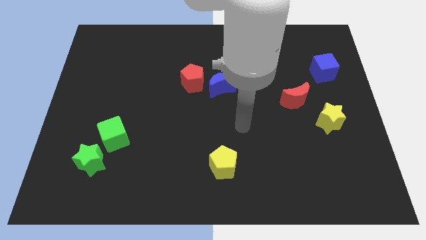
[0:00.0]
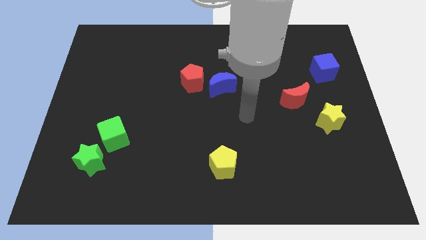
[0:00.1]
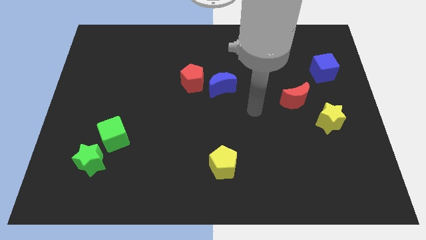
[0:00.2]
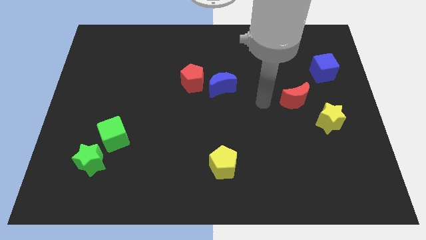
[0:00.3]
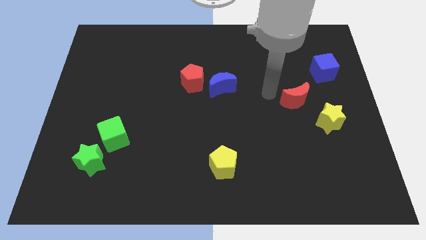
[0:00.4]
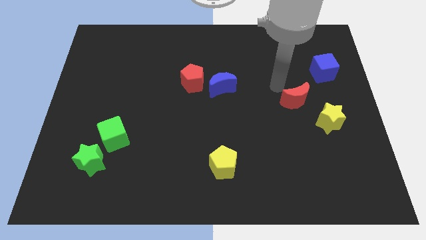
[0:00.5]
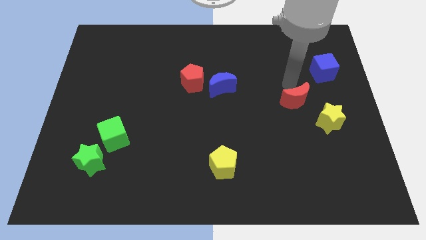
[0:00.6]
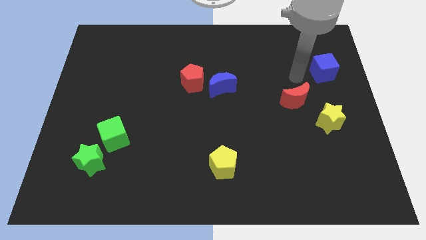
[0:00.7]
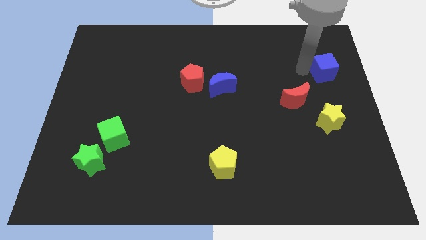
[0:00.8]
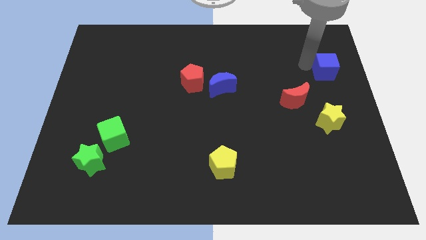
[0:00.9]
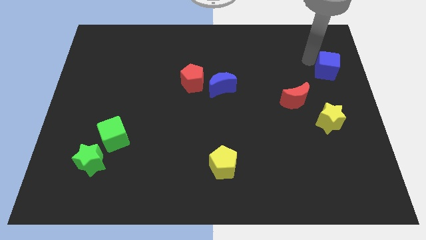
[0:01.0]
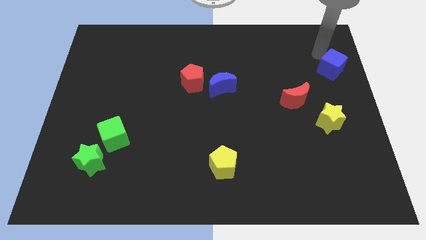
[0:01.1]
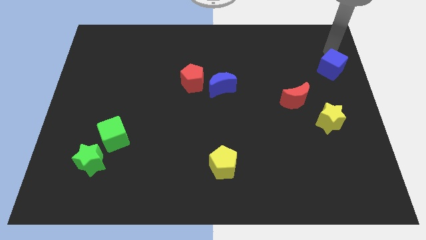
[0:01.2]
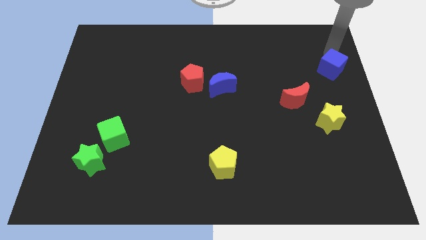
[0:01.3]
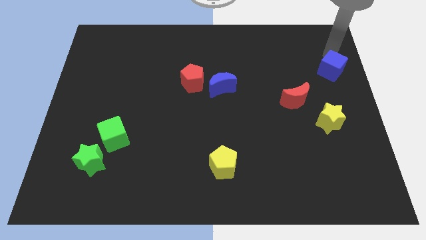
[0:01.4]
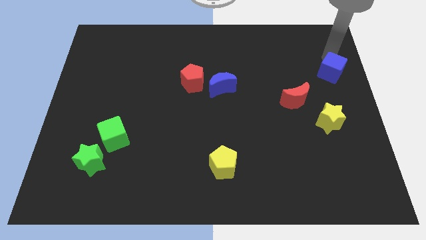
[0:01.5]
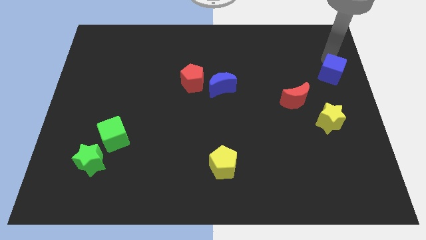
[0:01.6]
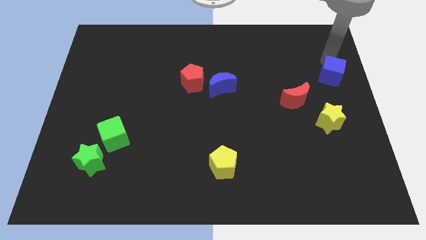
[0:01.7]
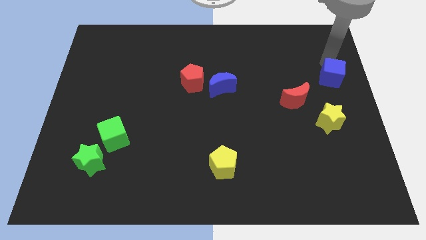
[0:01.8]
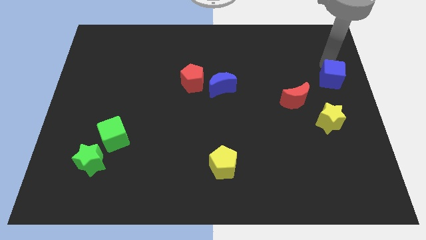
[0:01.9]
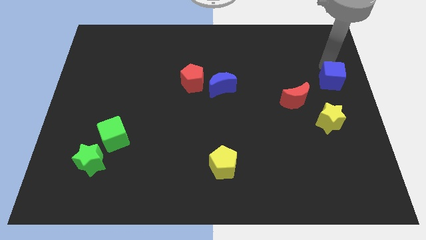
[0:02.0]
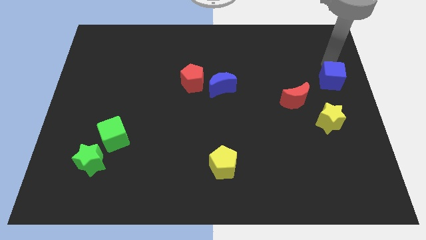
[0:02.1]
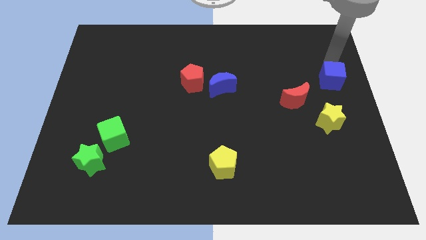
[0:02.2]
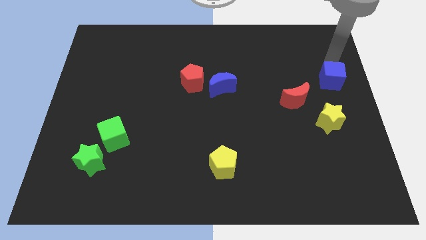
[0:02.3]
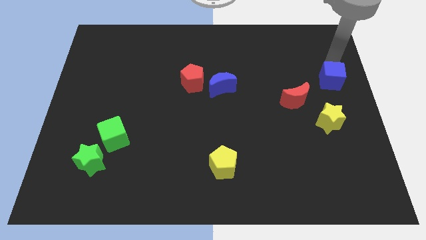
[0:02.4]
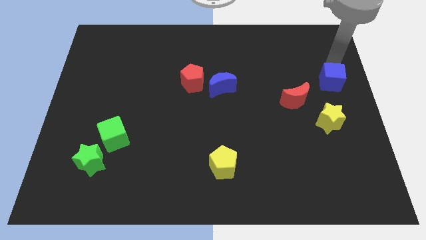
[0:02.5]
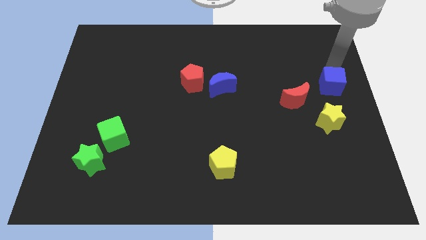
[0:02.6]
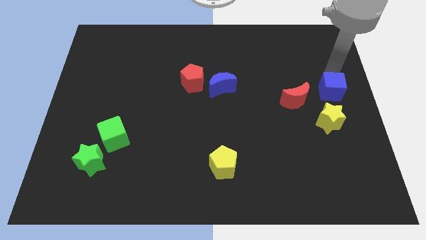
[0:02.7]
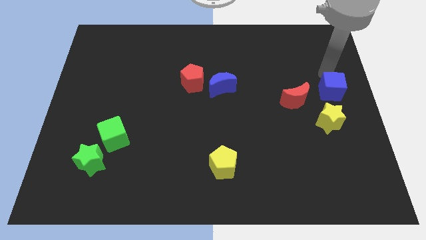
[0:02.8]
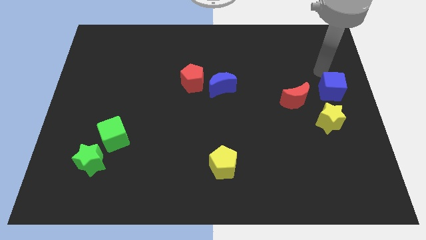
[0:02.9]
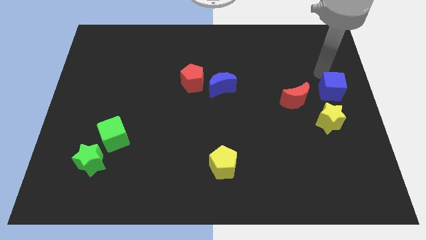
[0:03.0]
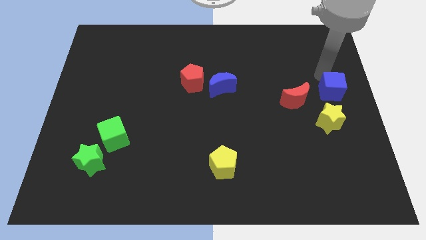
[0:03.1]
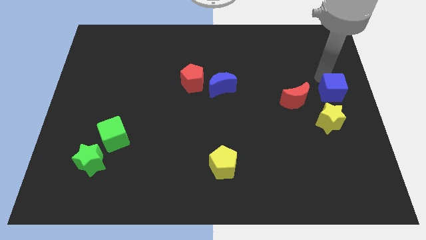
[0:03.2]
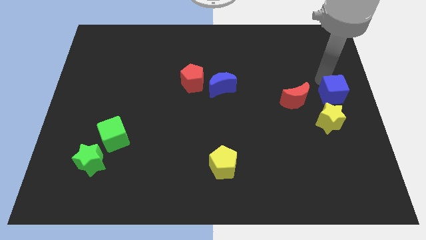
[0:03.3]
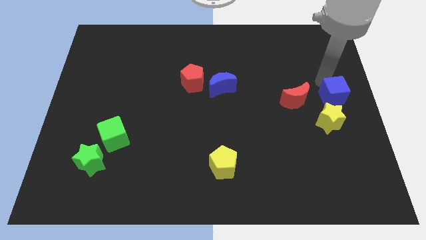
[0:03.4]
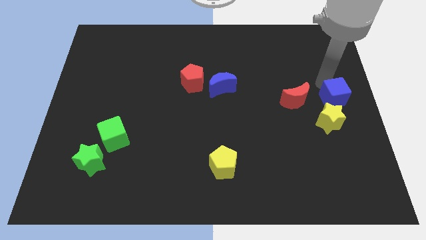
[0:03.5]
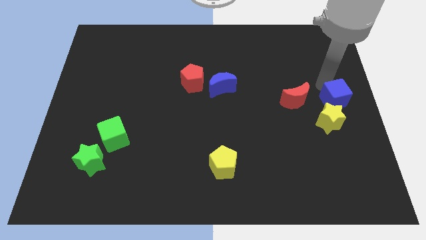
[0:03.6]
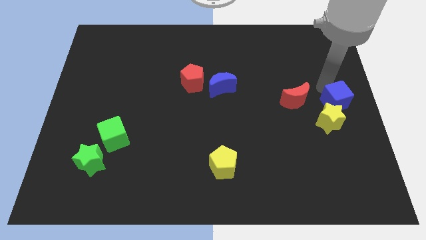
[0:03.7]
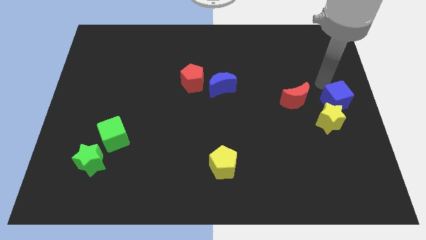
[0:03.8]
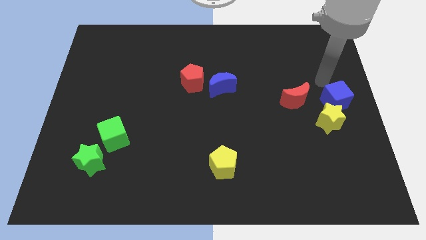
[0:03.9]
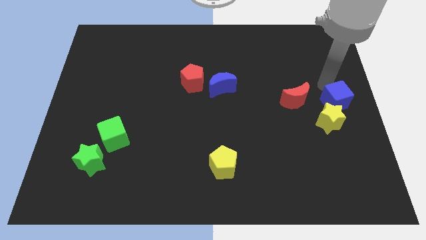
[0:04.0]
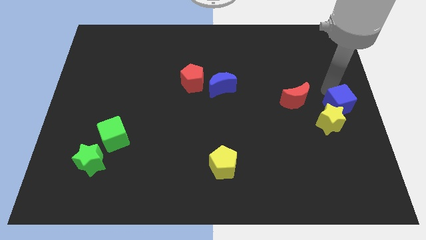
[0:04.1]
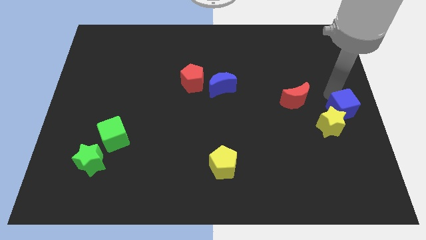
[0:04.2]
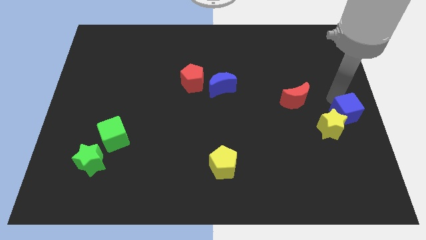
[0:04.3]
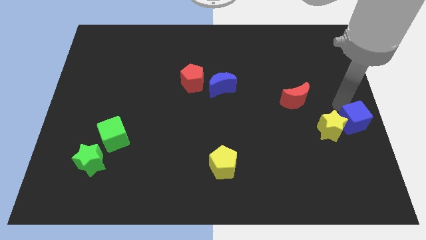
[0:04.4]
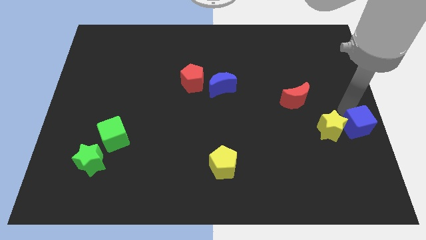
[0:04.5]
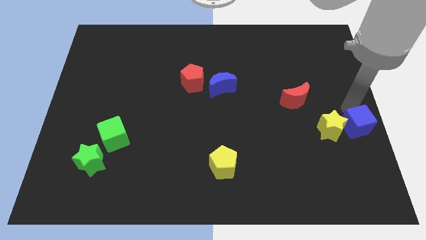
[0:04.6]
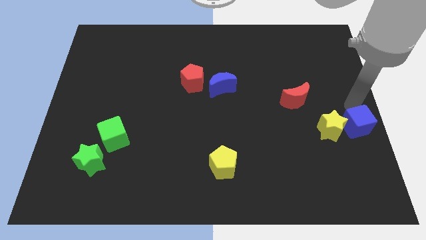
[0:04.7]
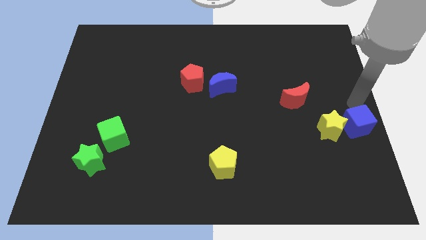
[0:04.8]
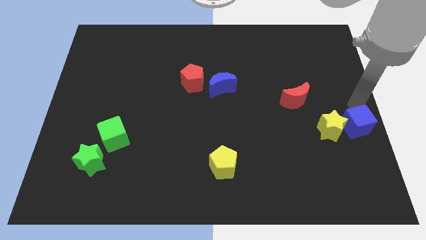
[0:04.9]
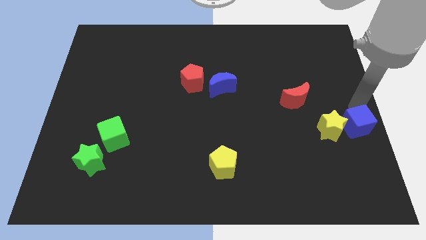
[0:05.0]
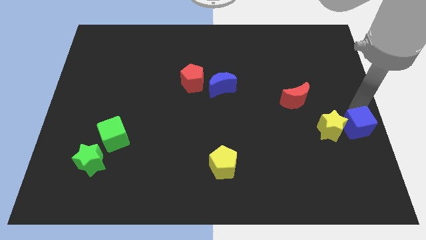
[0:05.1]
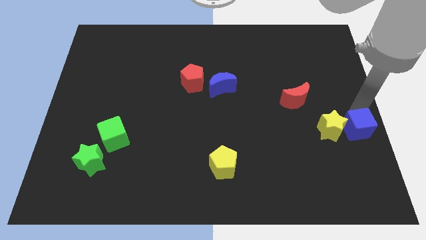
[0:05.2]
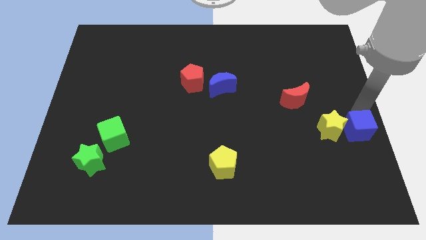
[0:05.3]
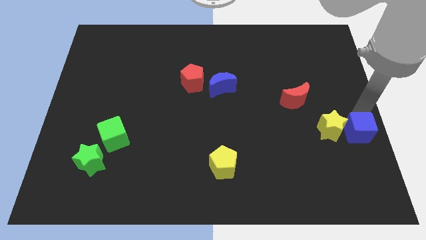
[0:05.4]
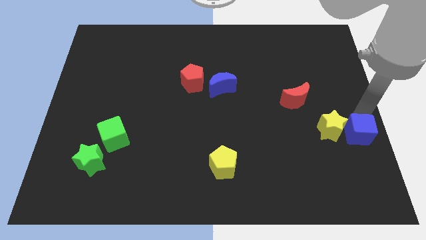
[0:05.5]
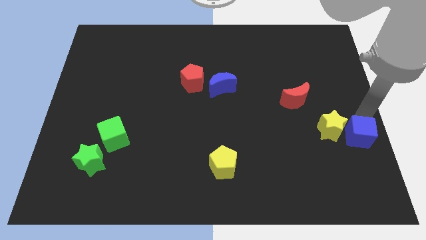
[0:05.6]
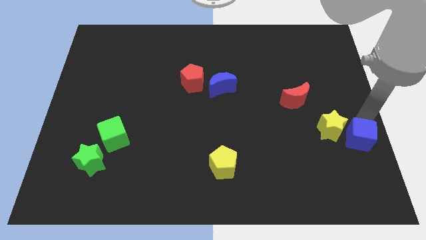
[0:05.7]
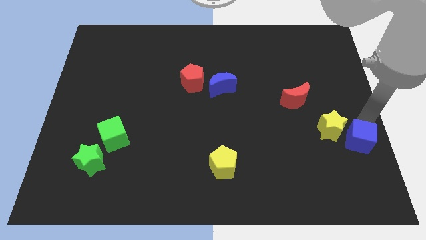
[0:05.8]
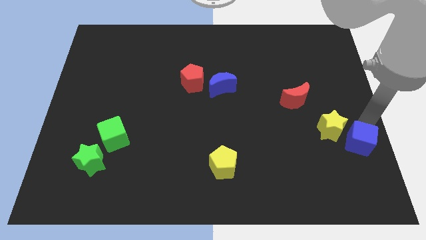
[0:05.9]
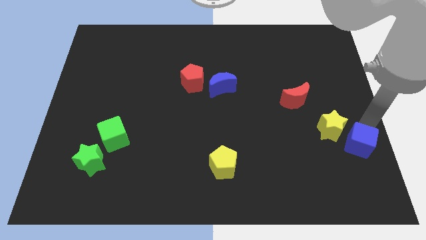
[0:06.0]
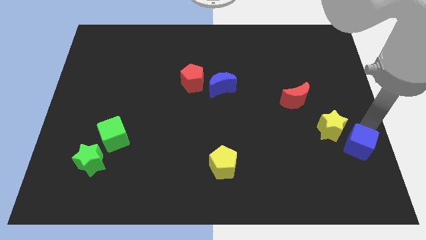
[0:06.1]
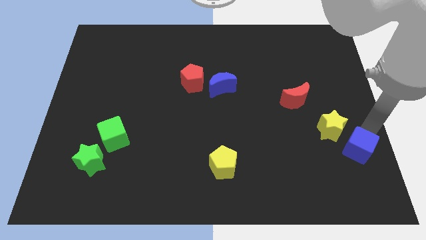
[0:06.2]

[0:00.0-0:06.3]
put the blue cube to the bottom of the yellow star

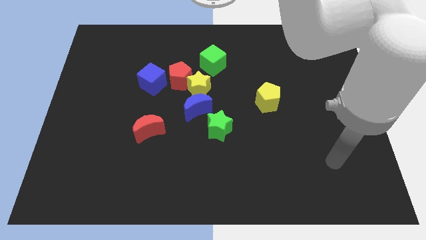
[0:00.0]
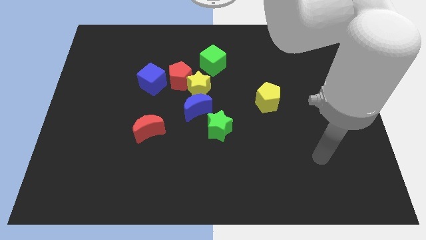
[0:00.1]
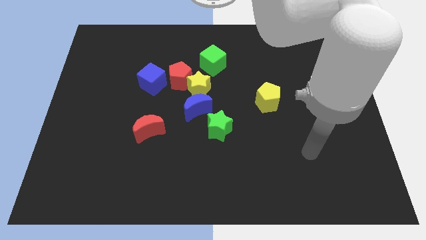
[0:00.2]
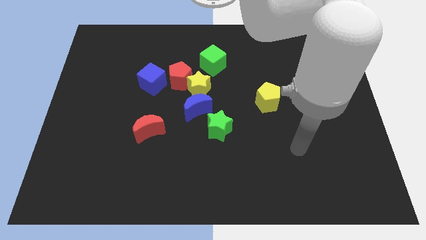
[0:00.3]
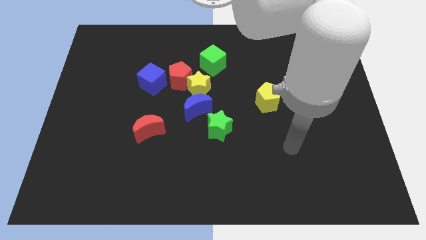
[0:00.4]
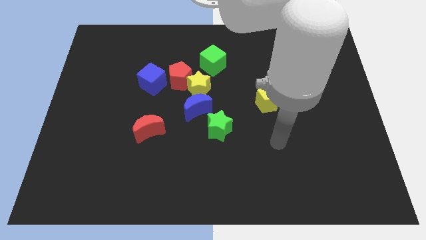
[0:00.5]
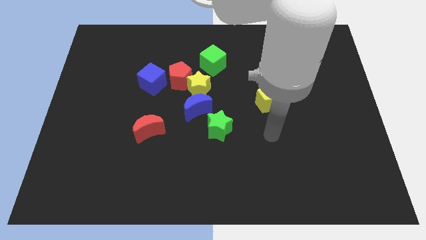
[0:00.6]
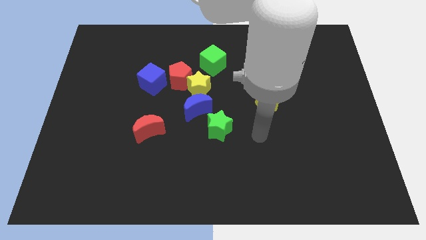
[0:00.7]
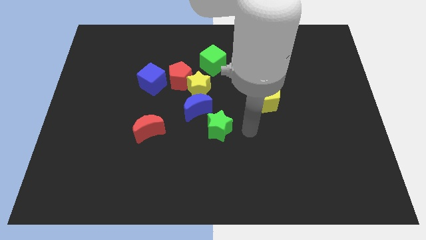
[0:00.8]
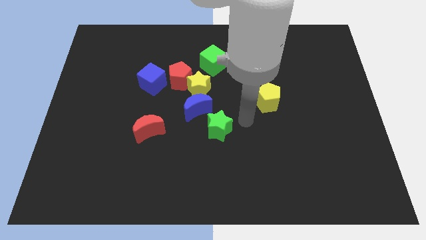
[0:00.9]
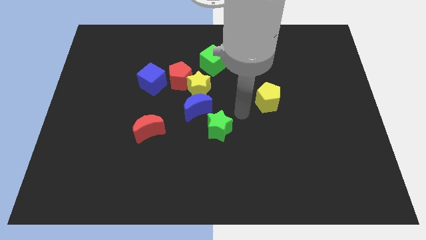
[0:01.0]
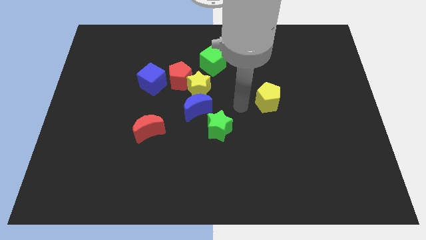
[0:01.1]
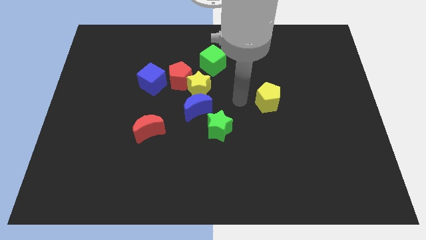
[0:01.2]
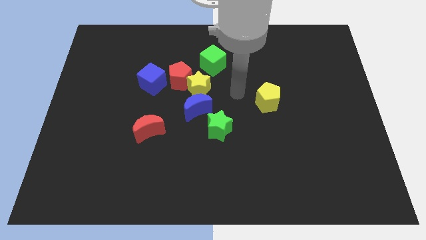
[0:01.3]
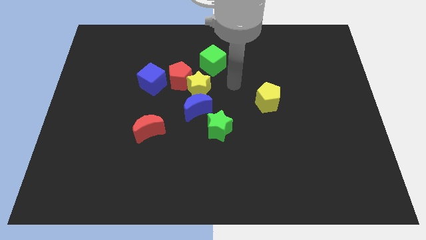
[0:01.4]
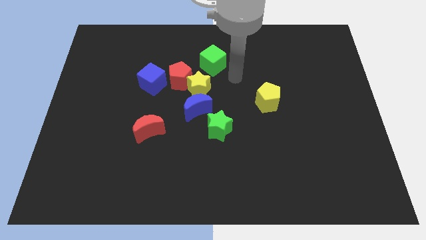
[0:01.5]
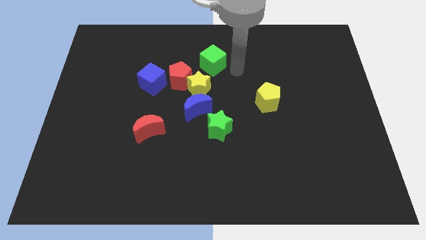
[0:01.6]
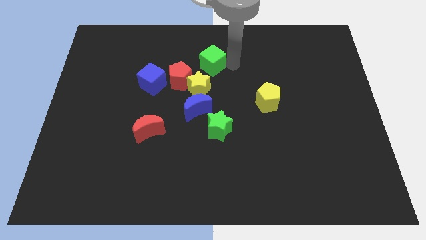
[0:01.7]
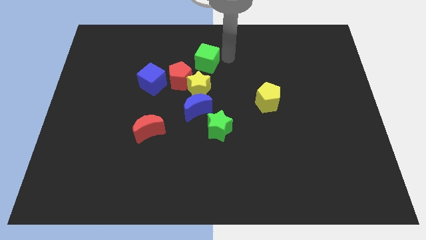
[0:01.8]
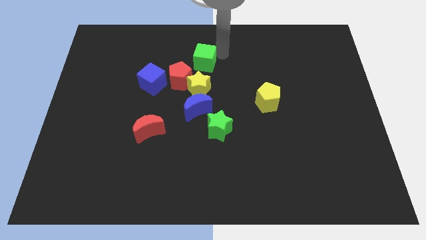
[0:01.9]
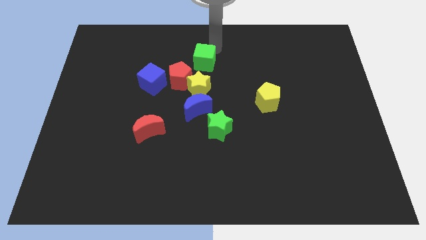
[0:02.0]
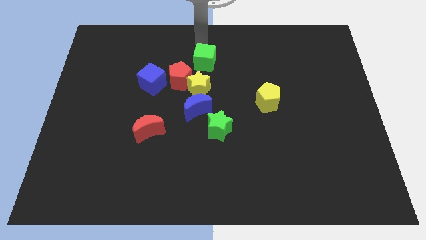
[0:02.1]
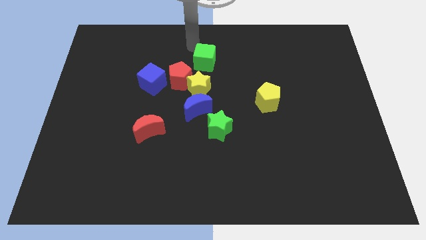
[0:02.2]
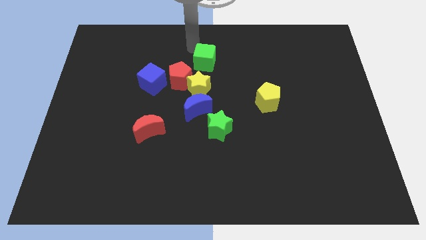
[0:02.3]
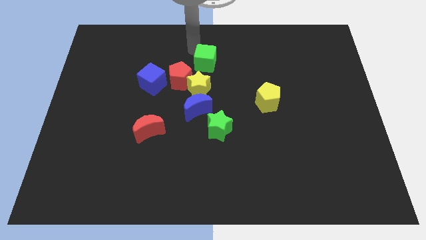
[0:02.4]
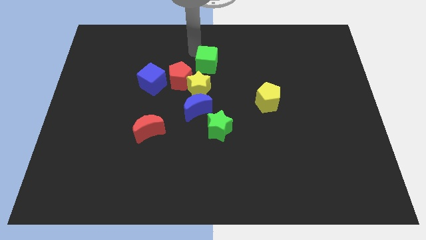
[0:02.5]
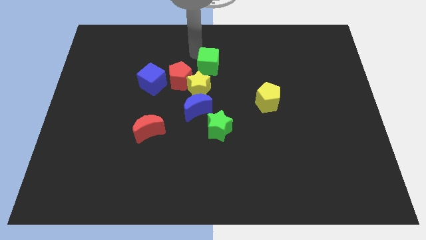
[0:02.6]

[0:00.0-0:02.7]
push the green cube to the right side of the red pentagon
